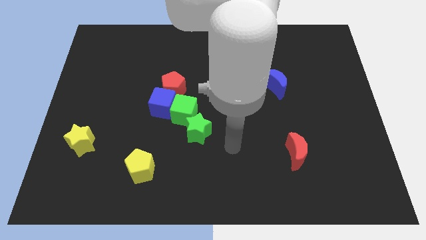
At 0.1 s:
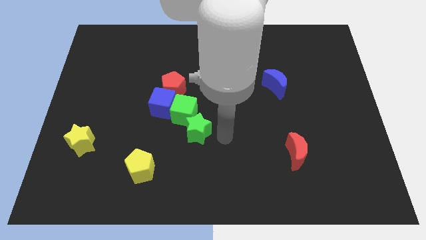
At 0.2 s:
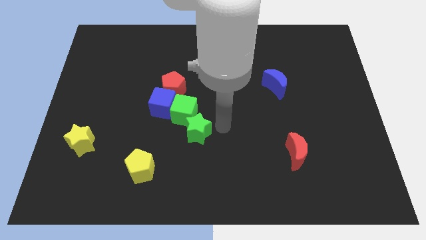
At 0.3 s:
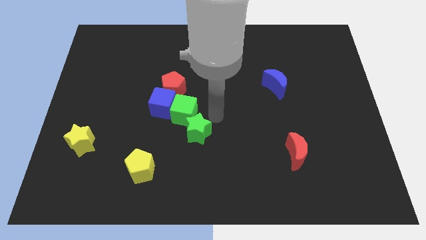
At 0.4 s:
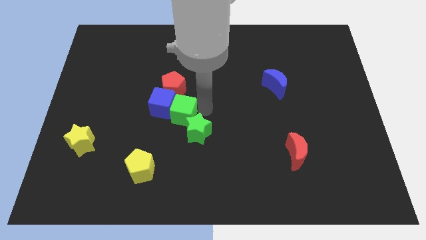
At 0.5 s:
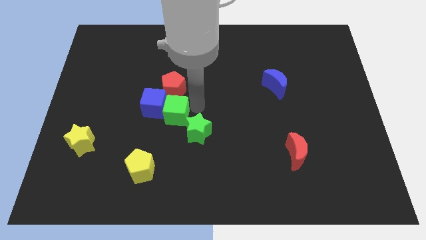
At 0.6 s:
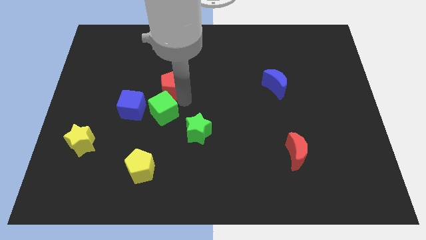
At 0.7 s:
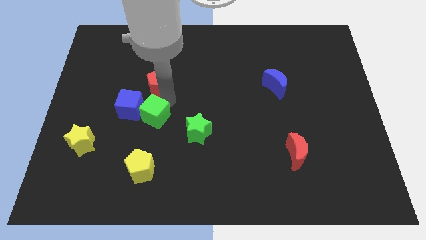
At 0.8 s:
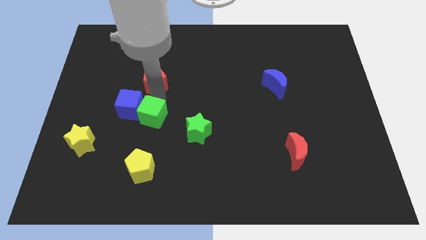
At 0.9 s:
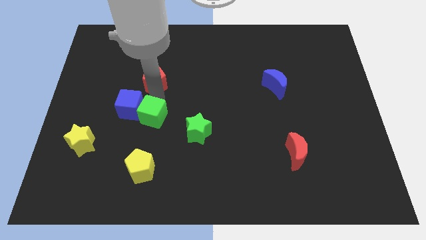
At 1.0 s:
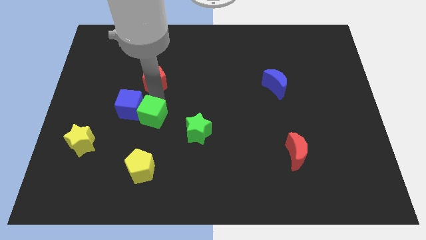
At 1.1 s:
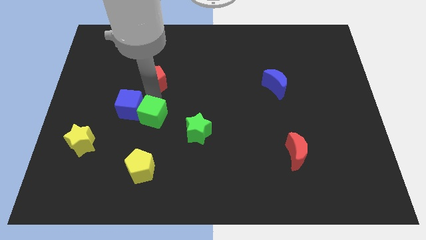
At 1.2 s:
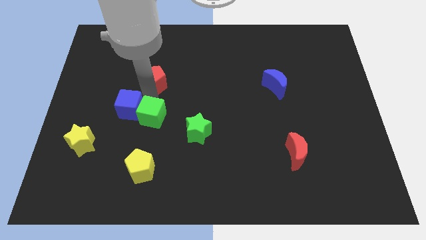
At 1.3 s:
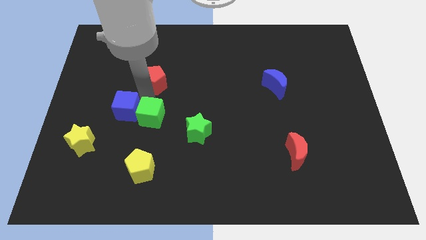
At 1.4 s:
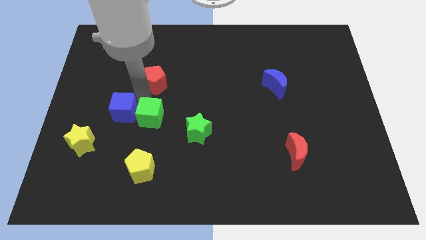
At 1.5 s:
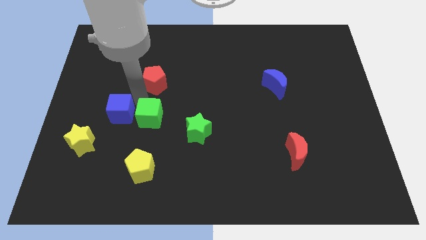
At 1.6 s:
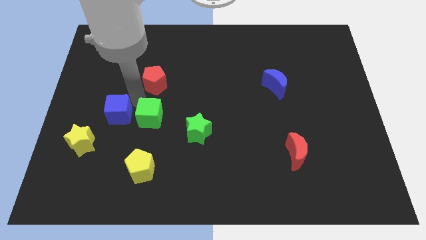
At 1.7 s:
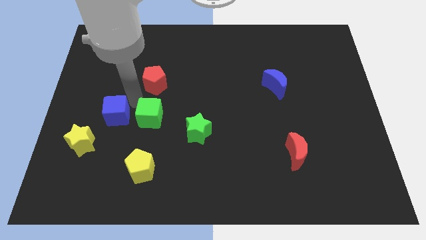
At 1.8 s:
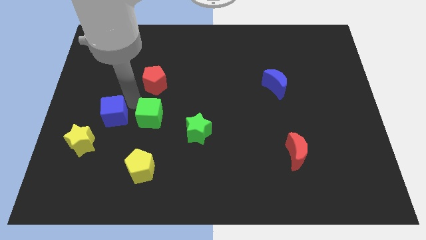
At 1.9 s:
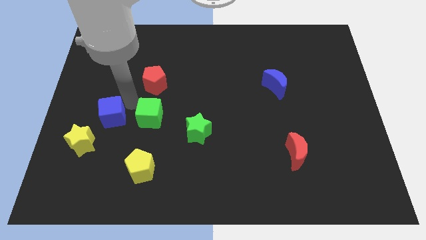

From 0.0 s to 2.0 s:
separate the blue cube from the green cube and red pentagon

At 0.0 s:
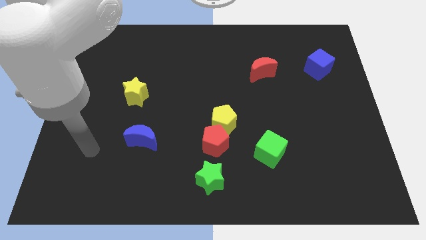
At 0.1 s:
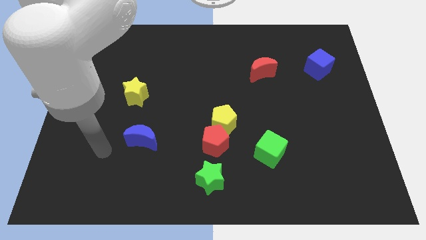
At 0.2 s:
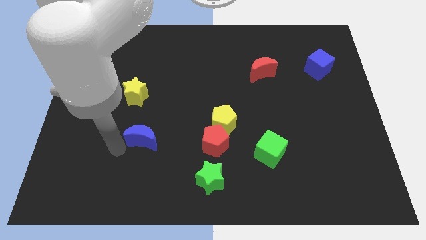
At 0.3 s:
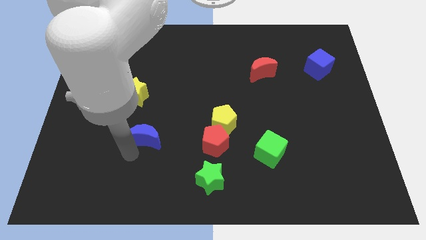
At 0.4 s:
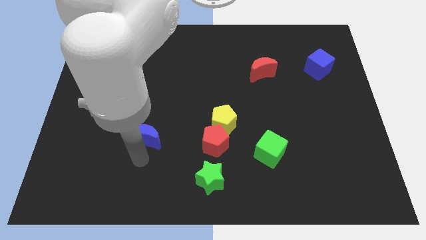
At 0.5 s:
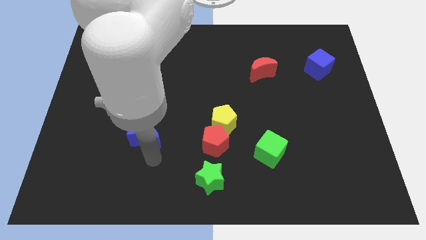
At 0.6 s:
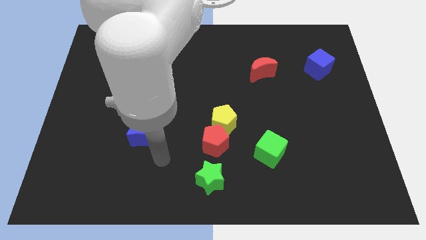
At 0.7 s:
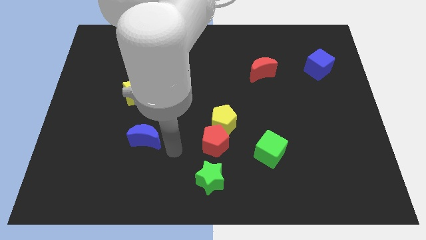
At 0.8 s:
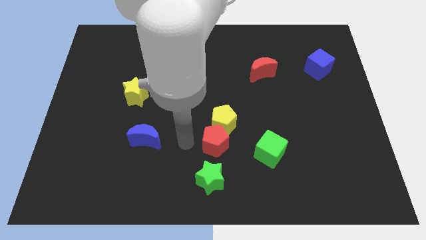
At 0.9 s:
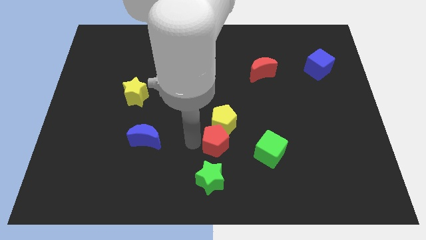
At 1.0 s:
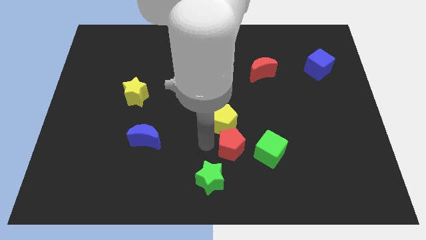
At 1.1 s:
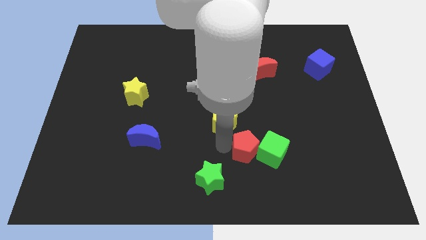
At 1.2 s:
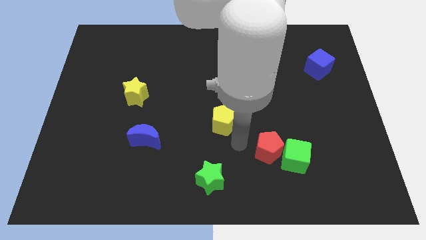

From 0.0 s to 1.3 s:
separate the yellow pentagon from the red pentagon

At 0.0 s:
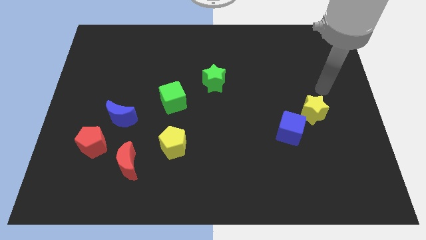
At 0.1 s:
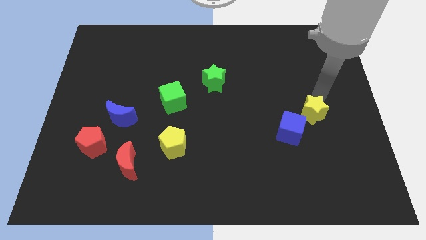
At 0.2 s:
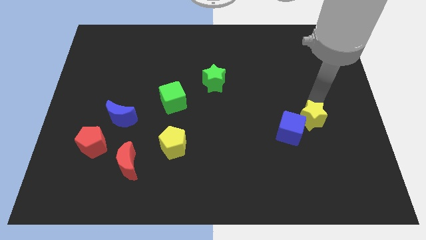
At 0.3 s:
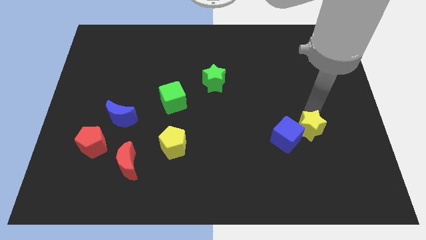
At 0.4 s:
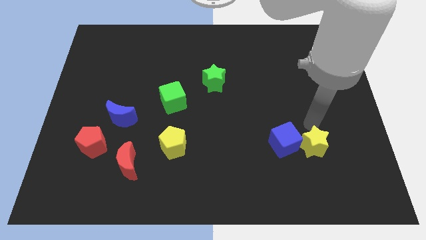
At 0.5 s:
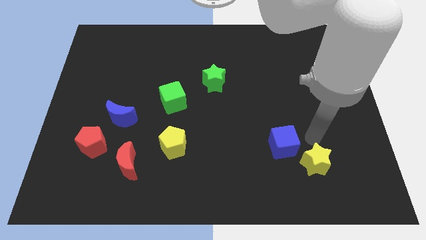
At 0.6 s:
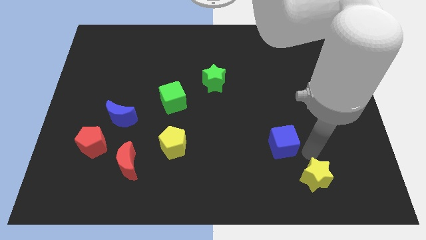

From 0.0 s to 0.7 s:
pull the blue cube apart from the yellow star

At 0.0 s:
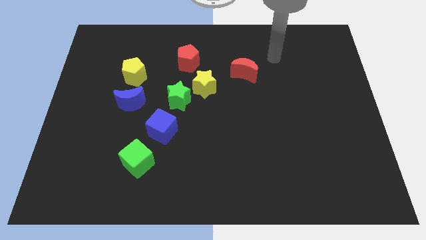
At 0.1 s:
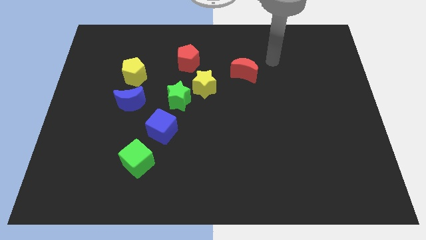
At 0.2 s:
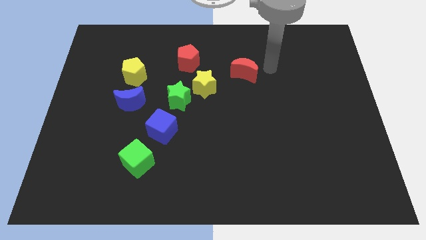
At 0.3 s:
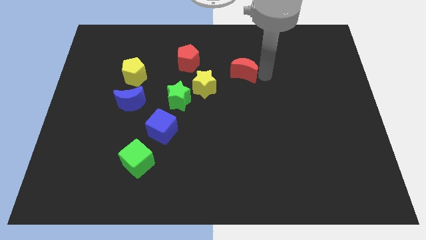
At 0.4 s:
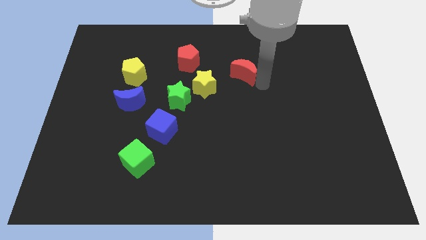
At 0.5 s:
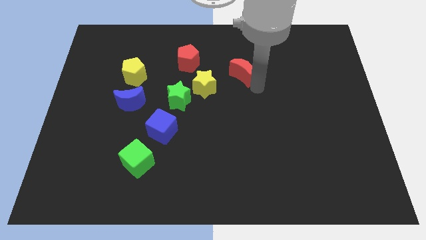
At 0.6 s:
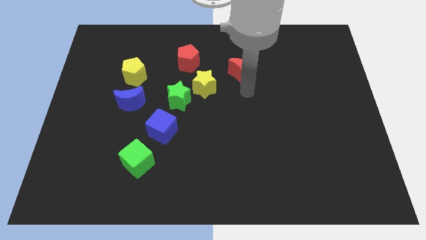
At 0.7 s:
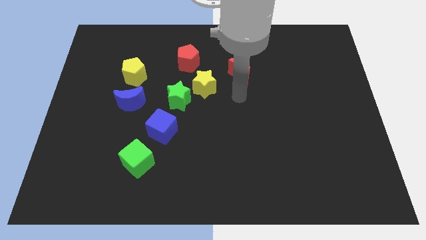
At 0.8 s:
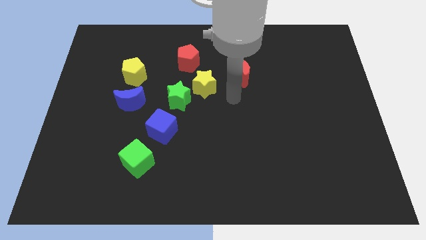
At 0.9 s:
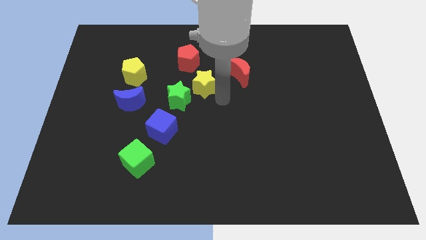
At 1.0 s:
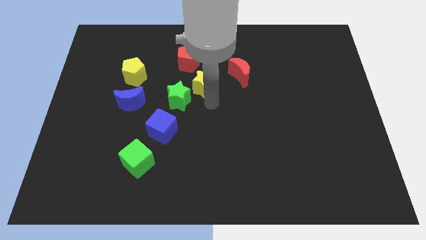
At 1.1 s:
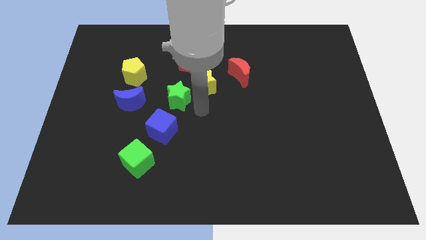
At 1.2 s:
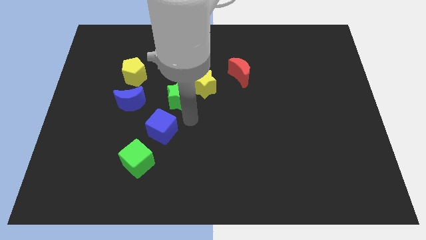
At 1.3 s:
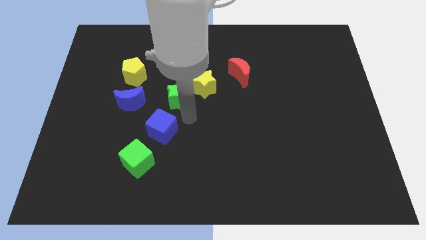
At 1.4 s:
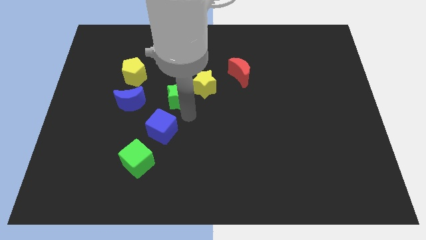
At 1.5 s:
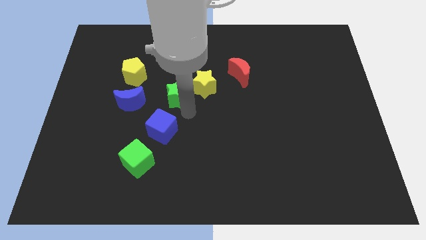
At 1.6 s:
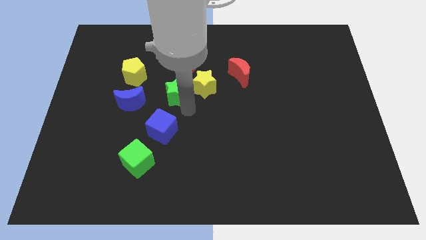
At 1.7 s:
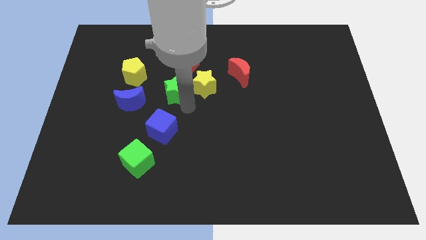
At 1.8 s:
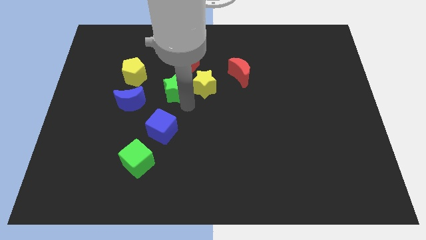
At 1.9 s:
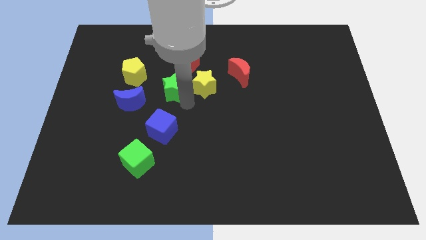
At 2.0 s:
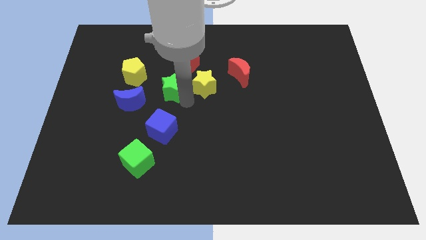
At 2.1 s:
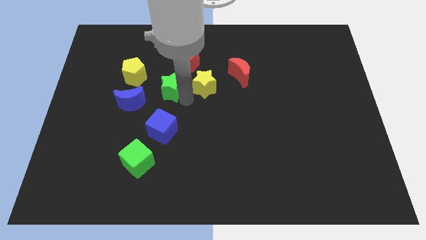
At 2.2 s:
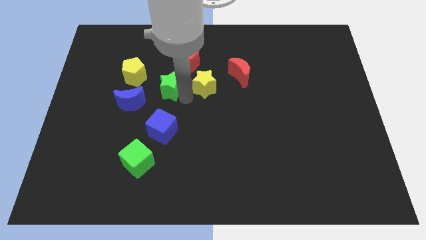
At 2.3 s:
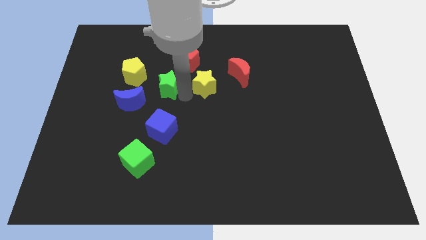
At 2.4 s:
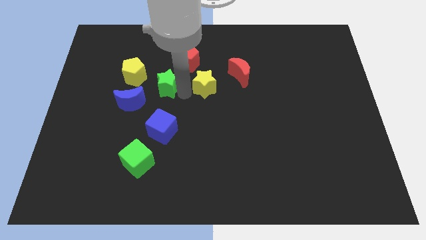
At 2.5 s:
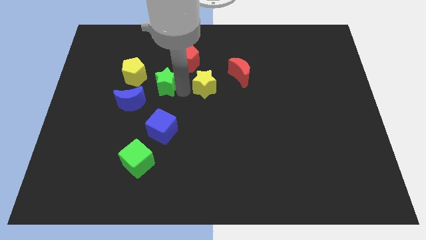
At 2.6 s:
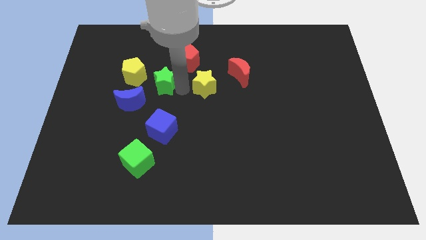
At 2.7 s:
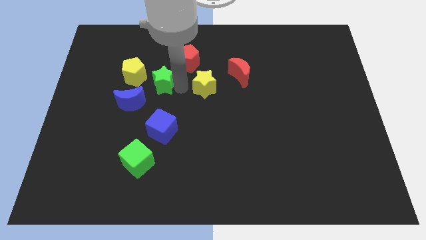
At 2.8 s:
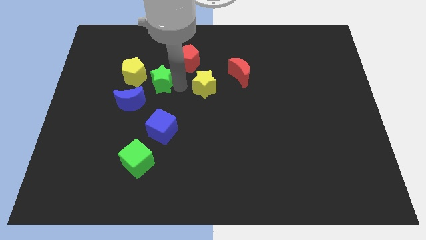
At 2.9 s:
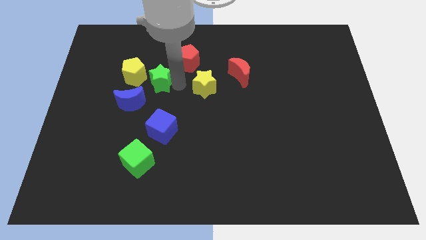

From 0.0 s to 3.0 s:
separate the green star from the yellow star and blue cube

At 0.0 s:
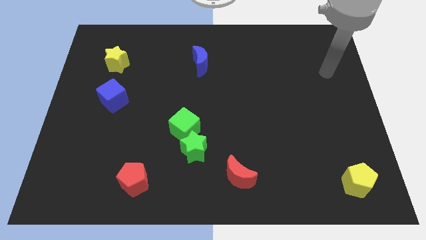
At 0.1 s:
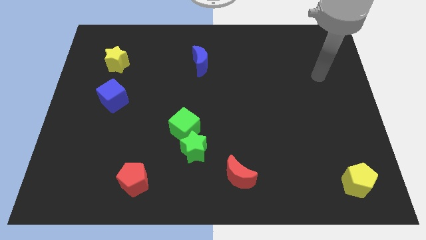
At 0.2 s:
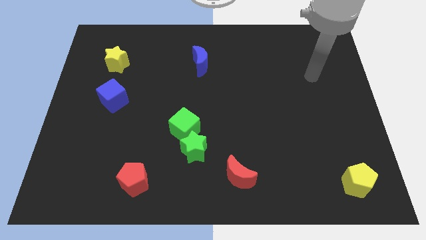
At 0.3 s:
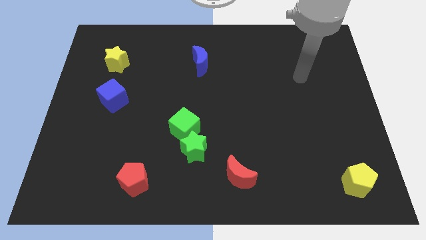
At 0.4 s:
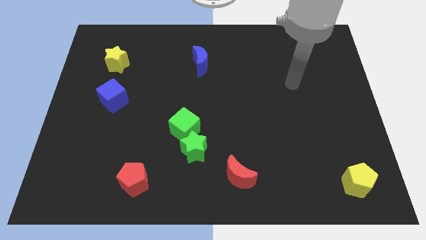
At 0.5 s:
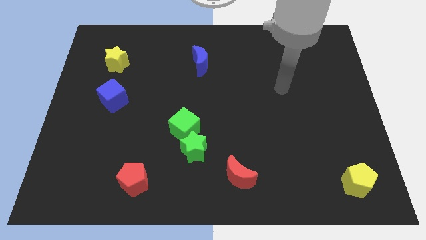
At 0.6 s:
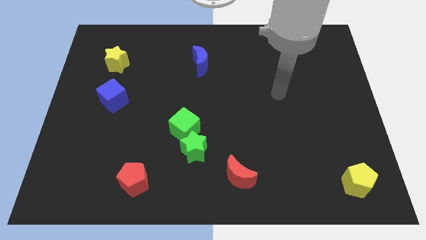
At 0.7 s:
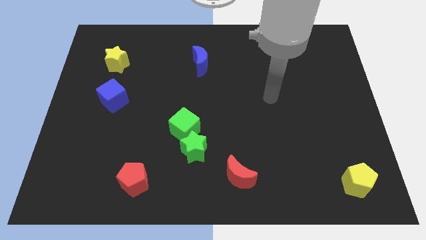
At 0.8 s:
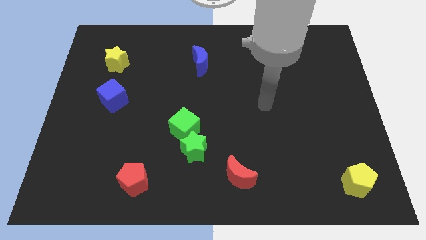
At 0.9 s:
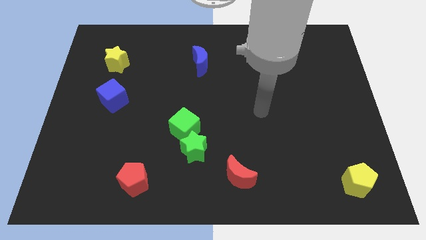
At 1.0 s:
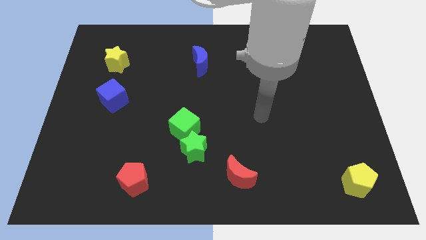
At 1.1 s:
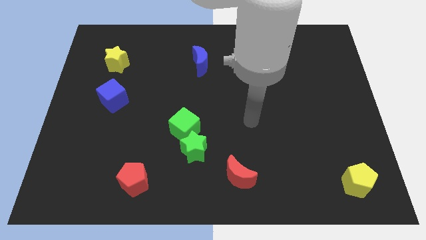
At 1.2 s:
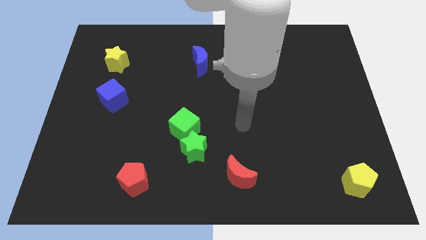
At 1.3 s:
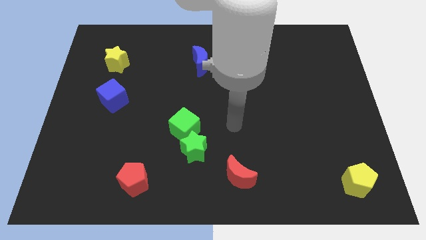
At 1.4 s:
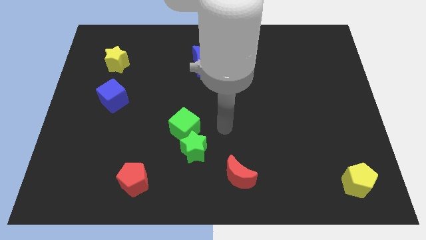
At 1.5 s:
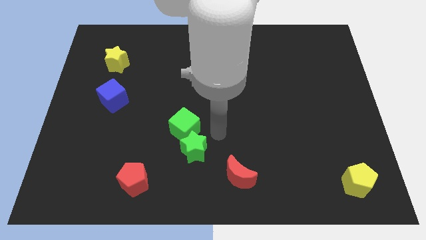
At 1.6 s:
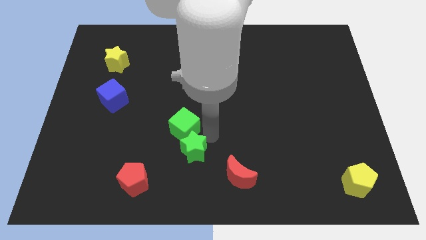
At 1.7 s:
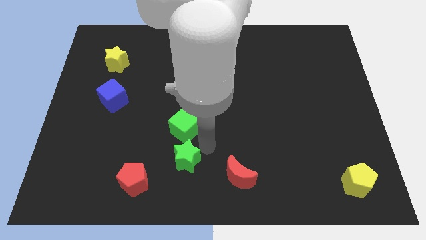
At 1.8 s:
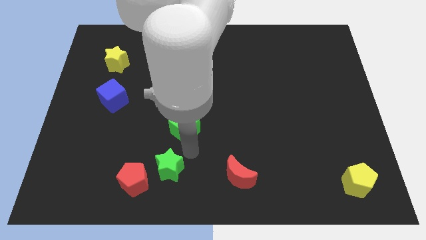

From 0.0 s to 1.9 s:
pull the green cube apart from the green star

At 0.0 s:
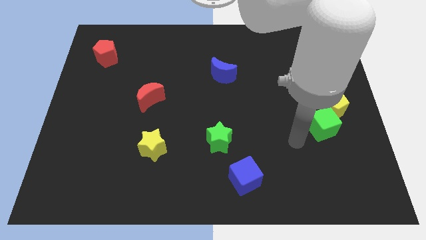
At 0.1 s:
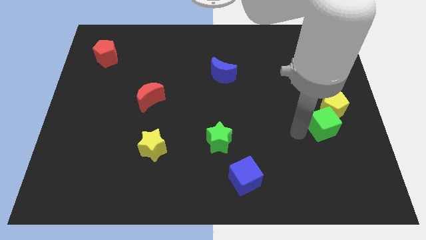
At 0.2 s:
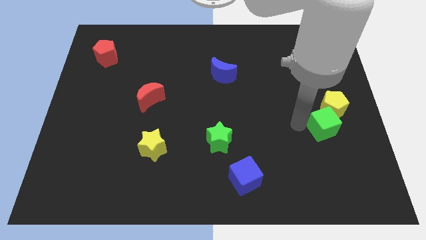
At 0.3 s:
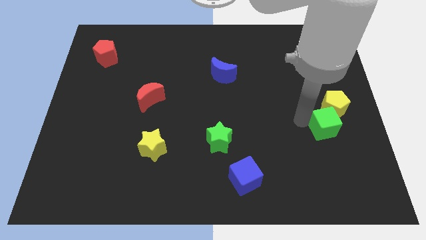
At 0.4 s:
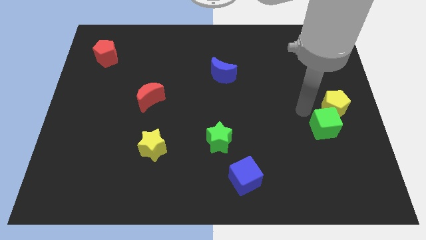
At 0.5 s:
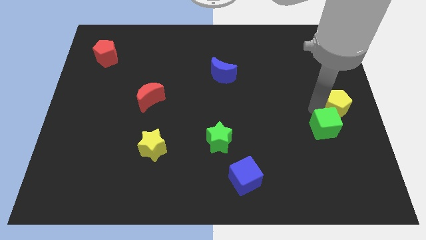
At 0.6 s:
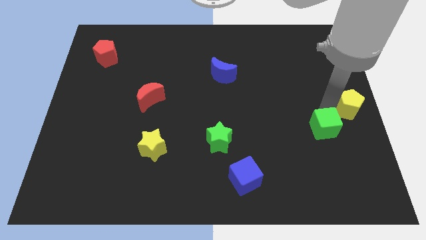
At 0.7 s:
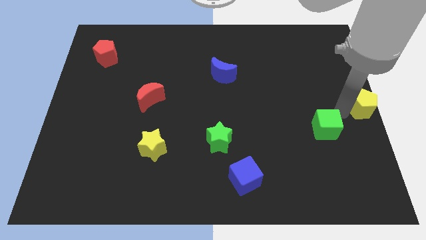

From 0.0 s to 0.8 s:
separate the green cube from the yellow pentagon
